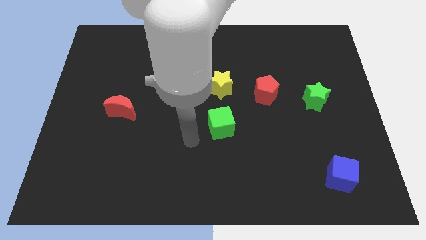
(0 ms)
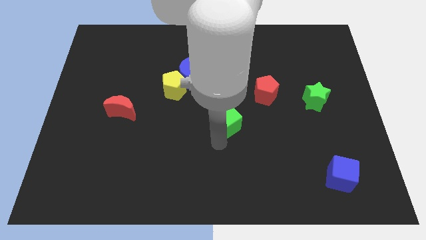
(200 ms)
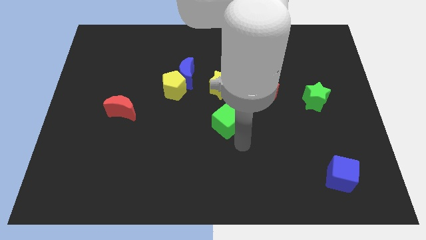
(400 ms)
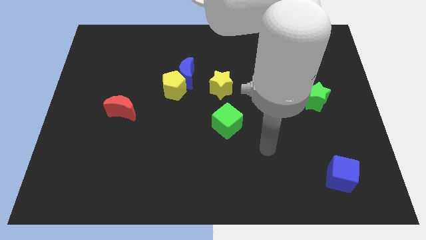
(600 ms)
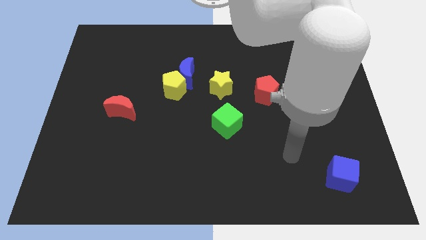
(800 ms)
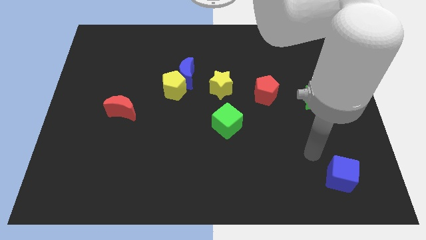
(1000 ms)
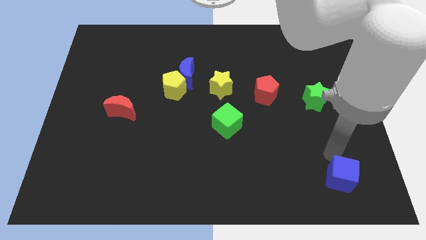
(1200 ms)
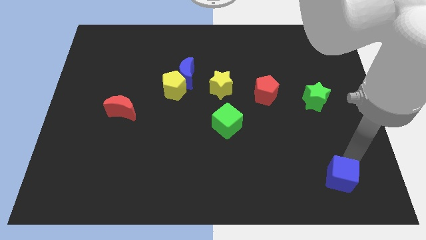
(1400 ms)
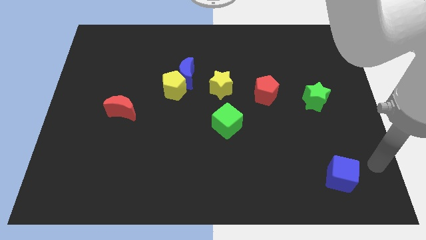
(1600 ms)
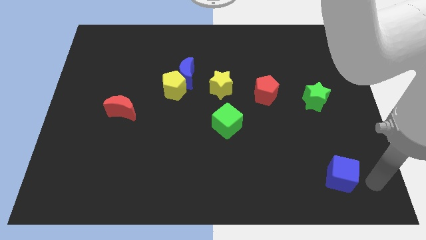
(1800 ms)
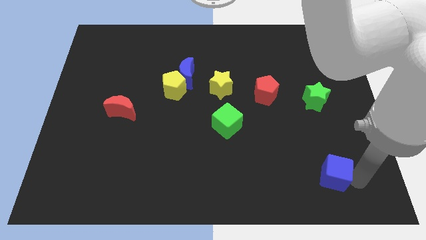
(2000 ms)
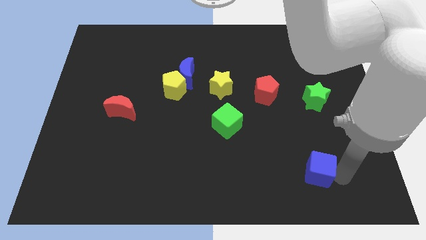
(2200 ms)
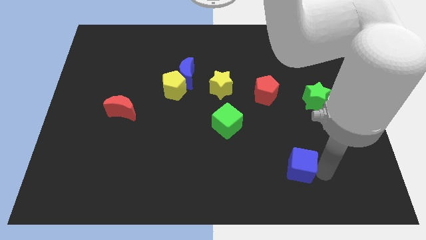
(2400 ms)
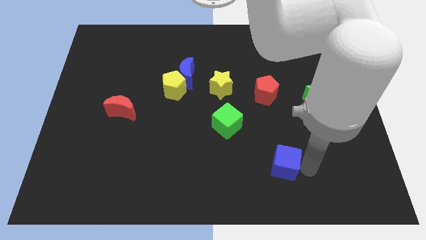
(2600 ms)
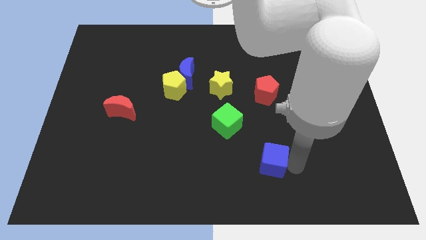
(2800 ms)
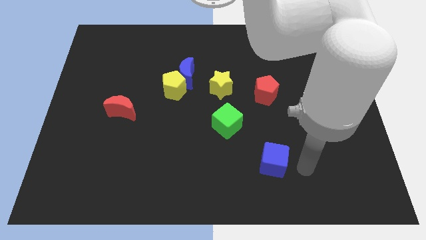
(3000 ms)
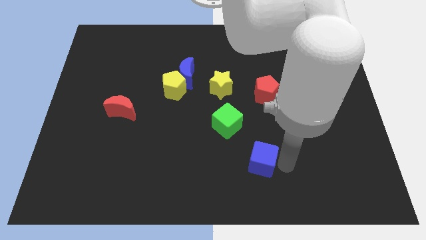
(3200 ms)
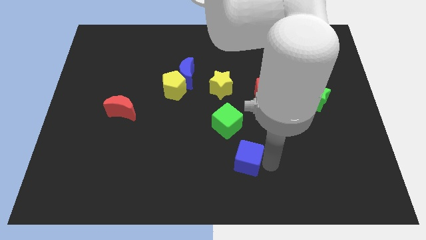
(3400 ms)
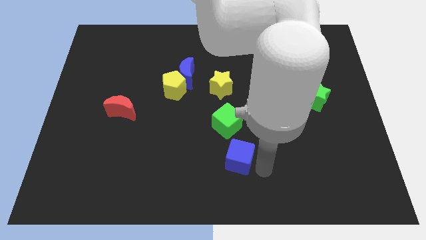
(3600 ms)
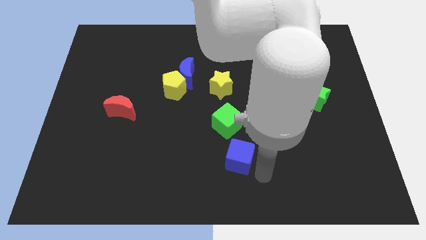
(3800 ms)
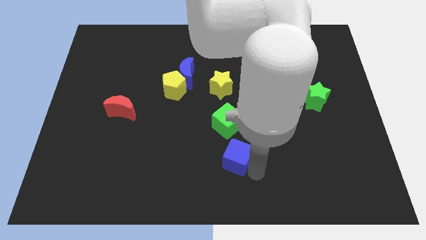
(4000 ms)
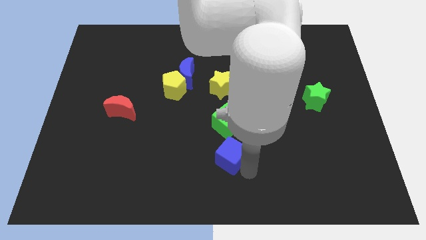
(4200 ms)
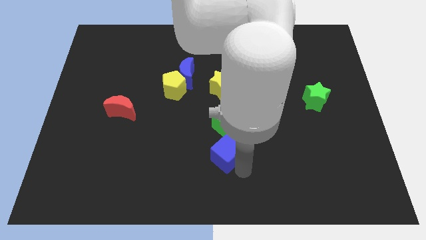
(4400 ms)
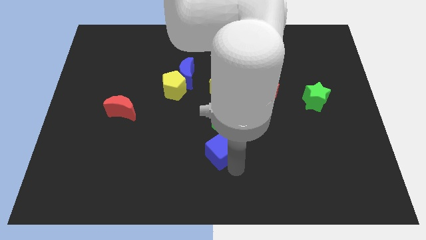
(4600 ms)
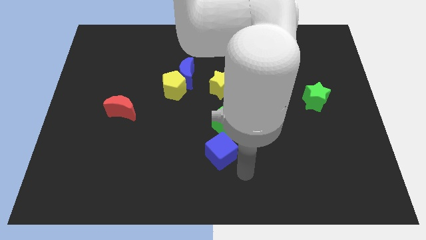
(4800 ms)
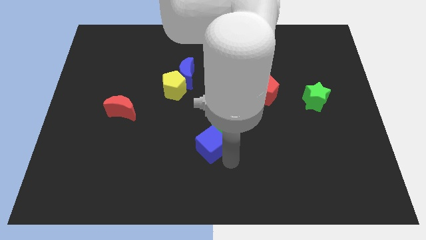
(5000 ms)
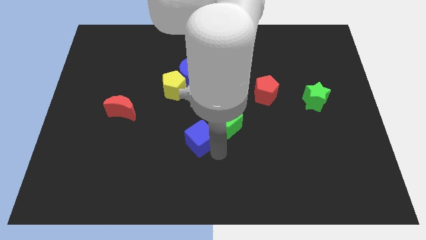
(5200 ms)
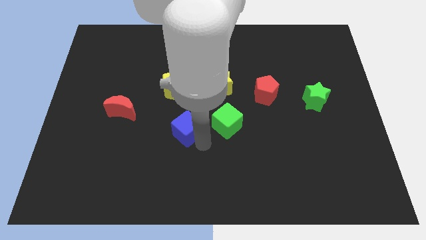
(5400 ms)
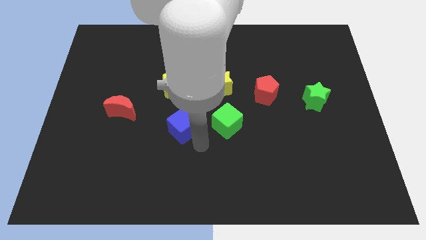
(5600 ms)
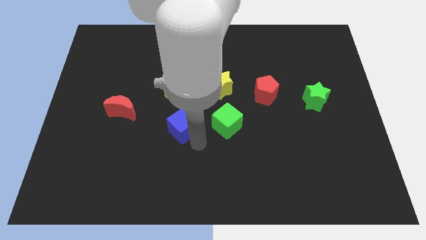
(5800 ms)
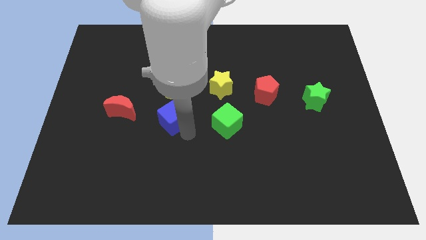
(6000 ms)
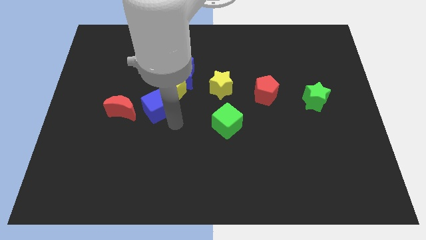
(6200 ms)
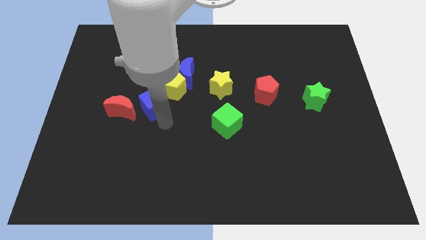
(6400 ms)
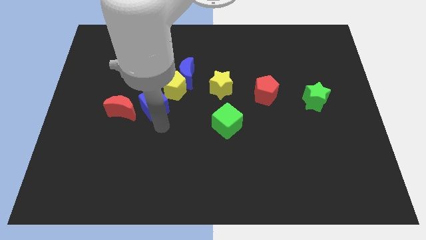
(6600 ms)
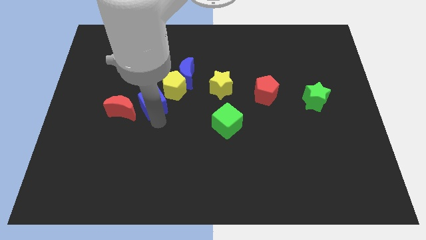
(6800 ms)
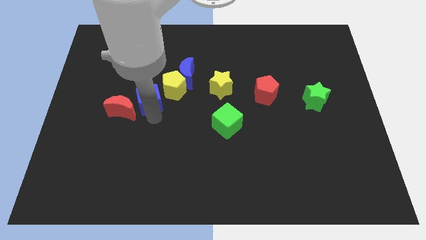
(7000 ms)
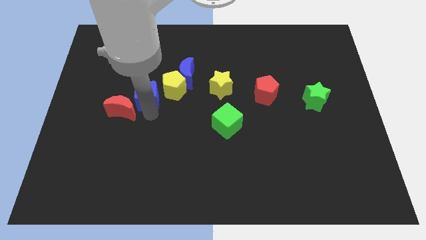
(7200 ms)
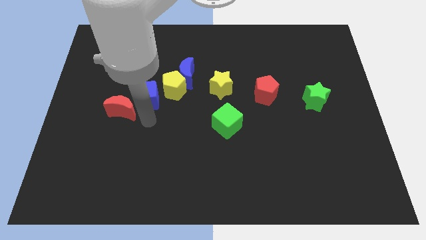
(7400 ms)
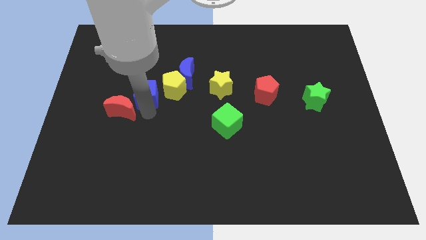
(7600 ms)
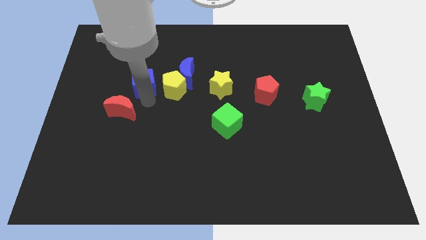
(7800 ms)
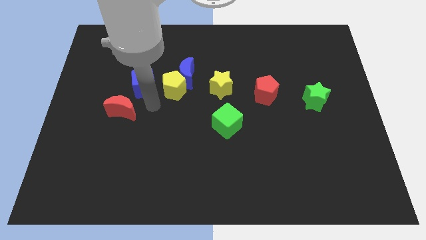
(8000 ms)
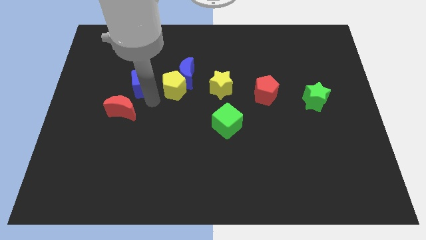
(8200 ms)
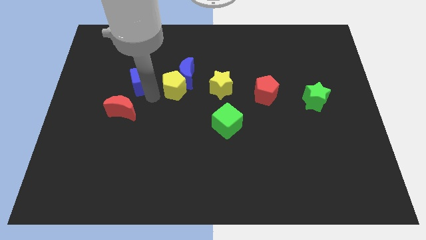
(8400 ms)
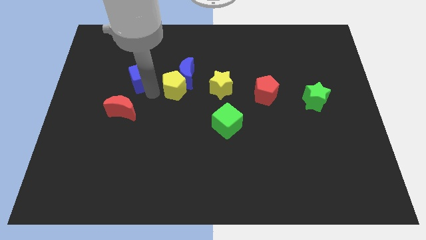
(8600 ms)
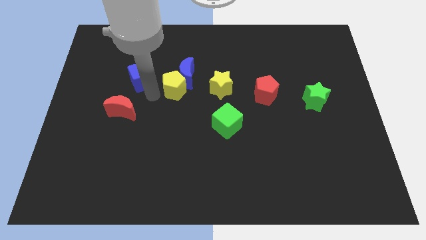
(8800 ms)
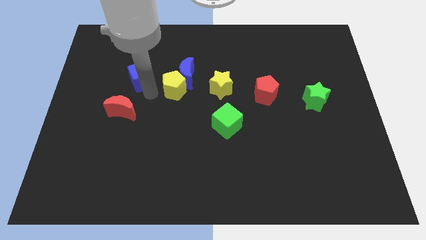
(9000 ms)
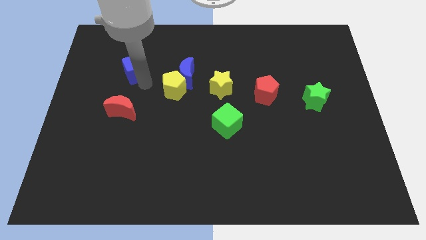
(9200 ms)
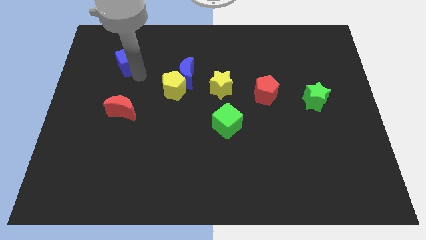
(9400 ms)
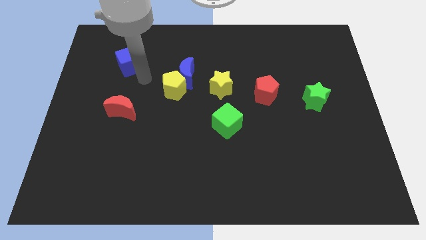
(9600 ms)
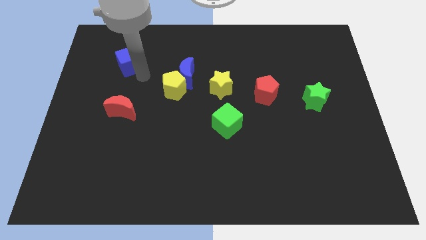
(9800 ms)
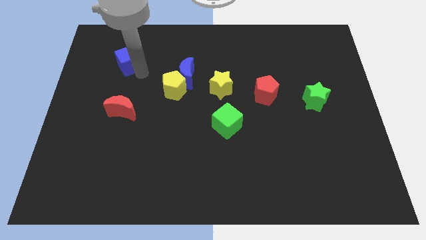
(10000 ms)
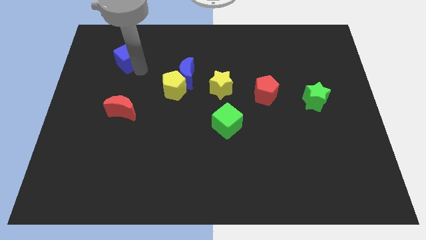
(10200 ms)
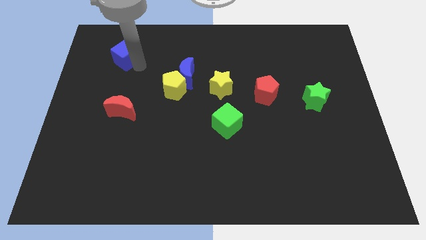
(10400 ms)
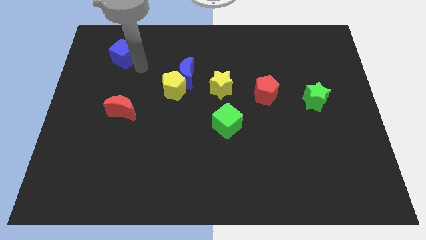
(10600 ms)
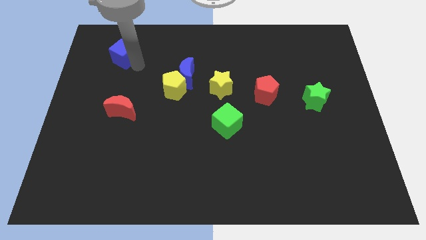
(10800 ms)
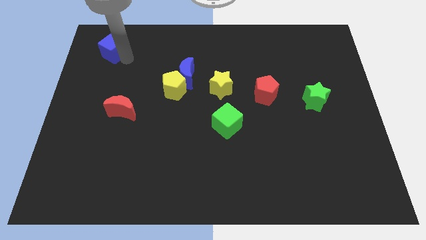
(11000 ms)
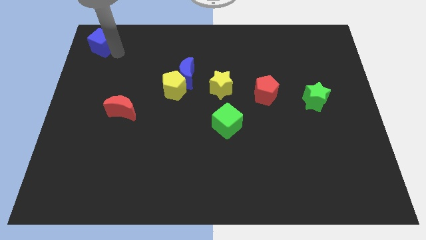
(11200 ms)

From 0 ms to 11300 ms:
move the blue cube to the top left corner

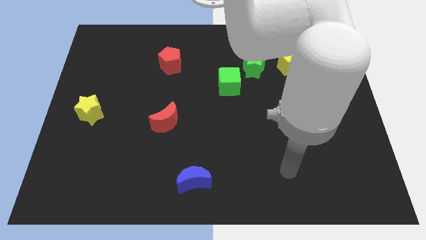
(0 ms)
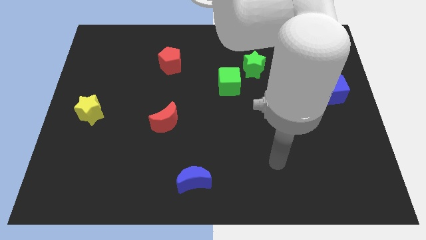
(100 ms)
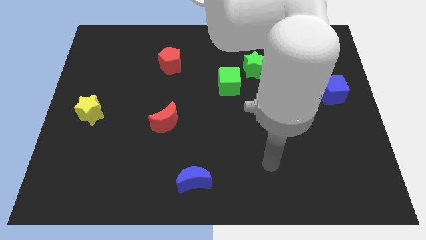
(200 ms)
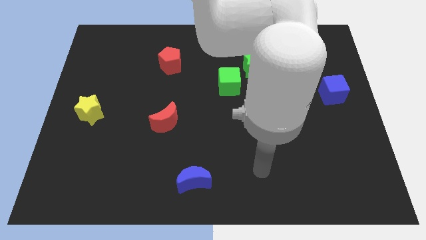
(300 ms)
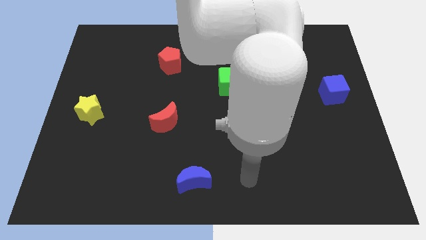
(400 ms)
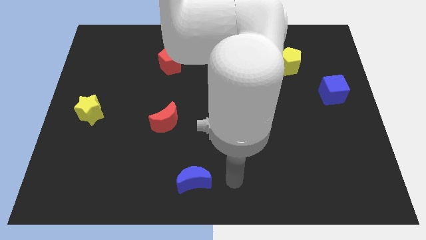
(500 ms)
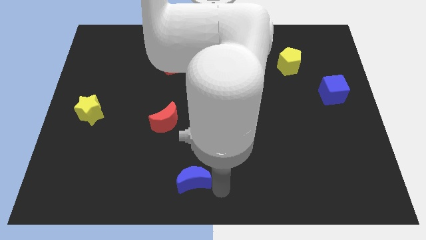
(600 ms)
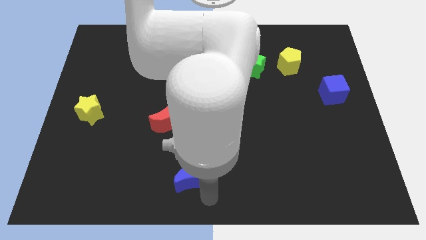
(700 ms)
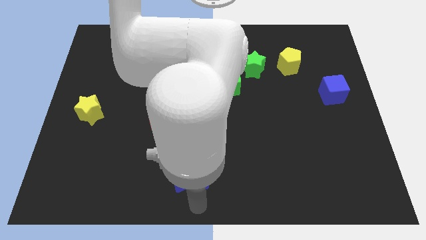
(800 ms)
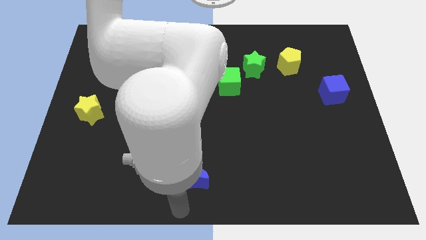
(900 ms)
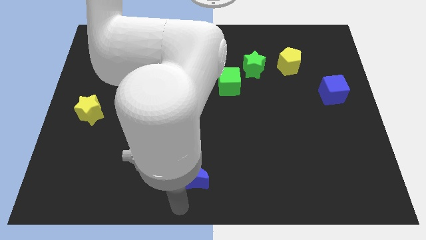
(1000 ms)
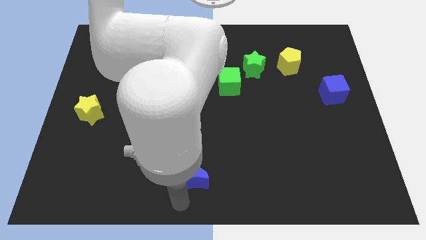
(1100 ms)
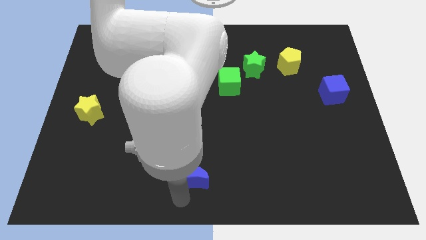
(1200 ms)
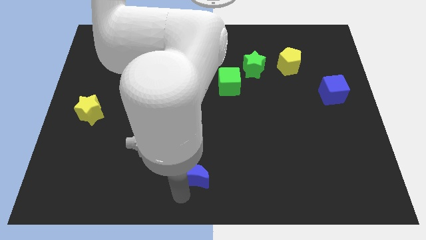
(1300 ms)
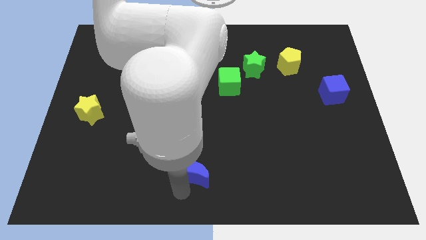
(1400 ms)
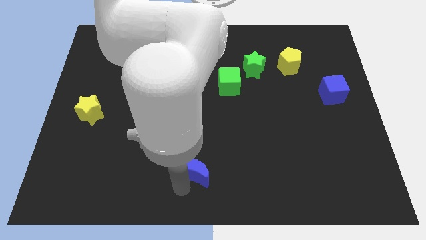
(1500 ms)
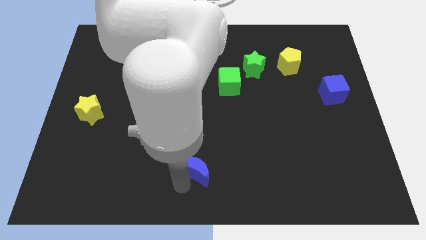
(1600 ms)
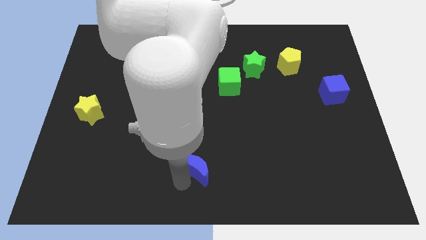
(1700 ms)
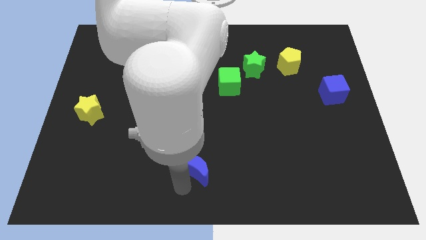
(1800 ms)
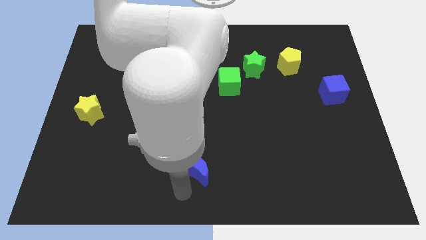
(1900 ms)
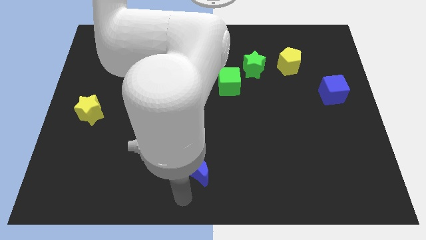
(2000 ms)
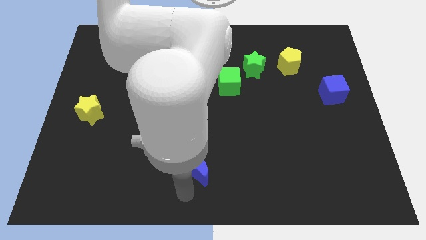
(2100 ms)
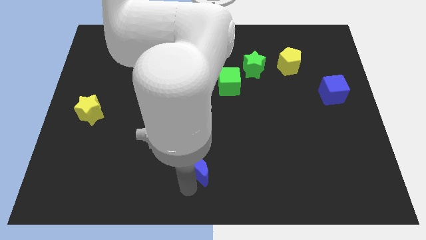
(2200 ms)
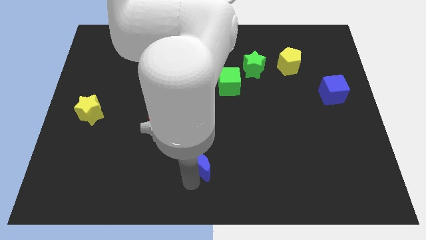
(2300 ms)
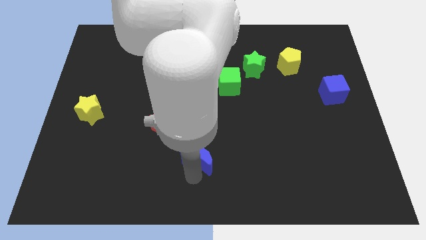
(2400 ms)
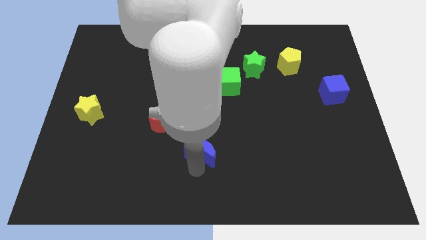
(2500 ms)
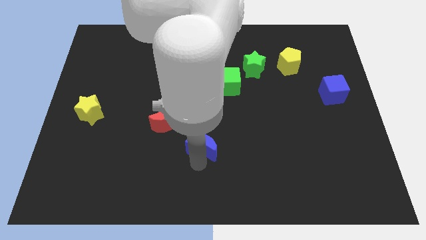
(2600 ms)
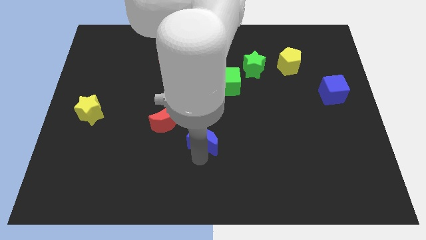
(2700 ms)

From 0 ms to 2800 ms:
move the blue moon to the center of the board
